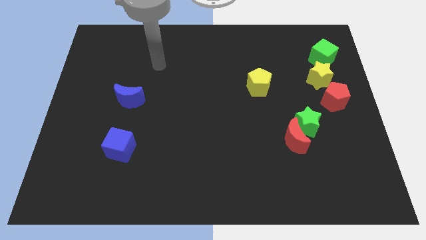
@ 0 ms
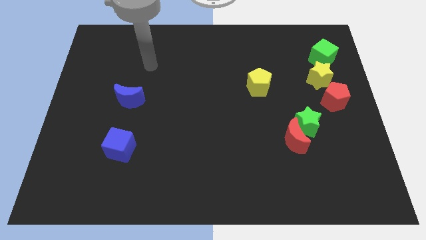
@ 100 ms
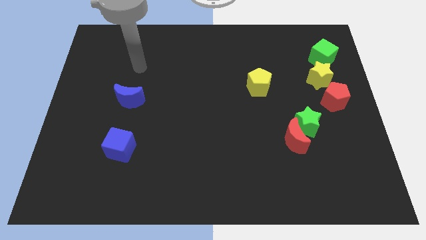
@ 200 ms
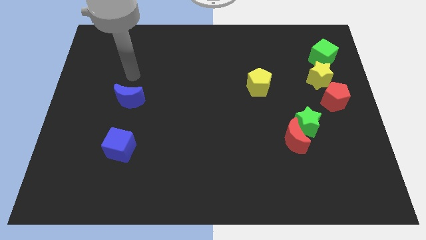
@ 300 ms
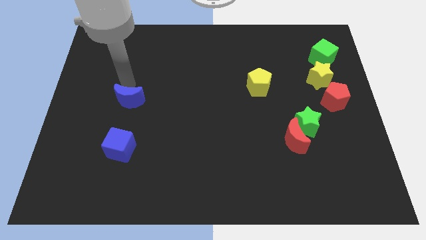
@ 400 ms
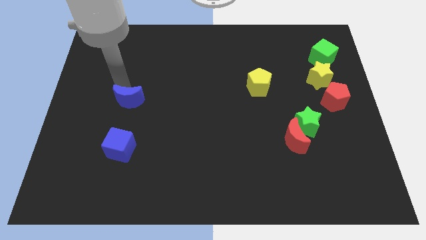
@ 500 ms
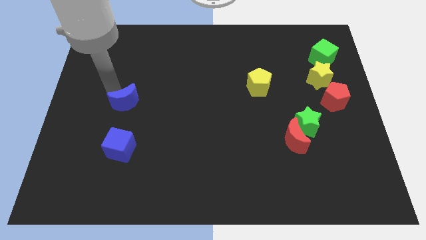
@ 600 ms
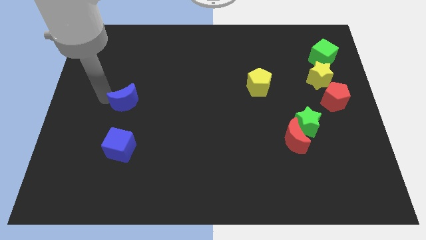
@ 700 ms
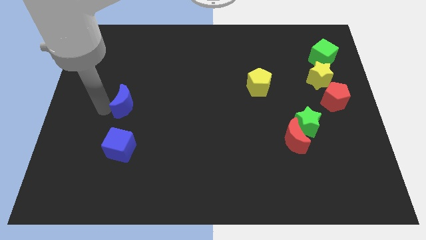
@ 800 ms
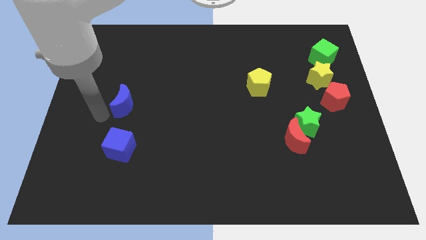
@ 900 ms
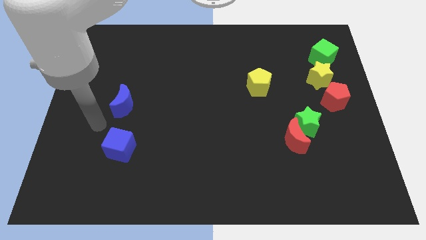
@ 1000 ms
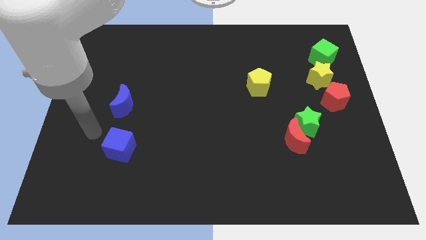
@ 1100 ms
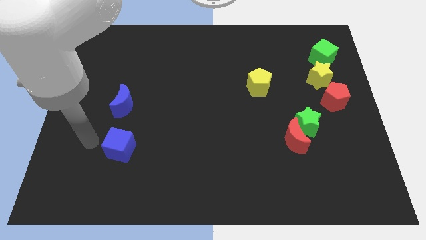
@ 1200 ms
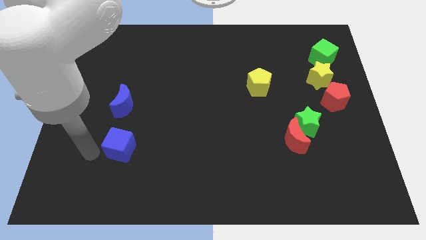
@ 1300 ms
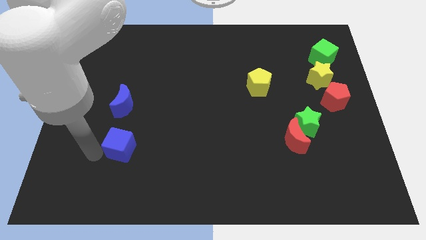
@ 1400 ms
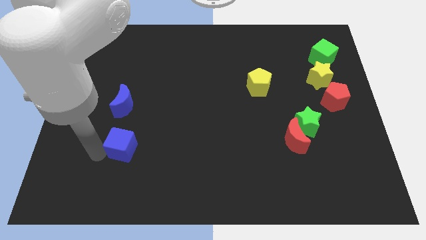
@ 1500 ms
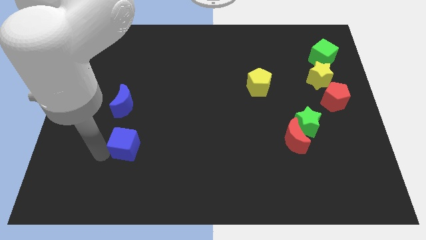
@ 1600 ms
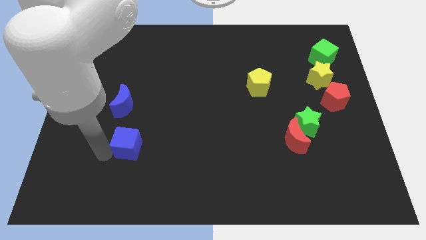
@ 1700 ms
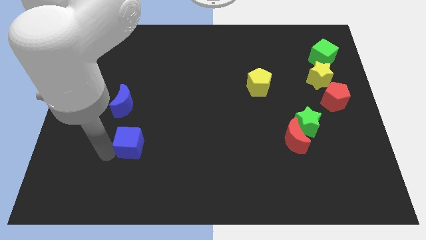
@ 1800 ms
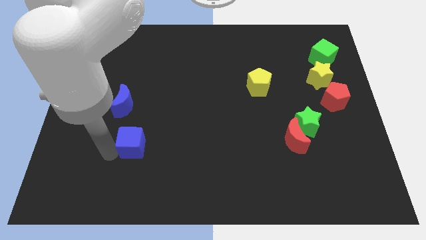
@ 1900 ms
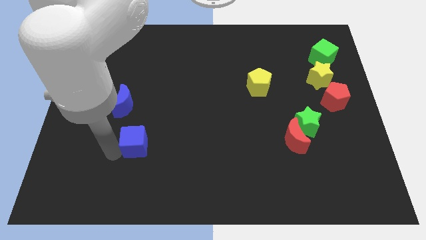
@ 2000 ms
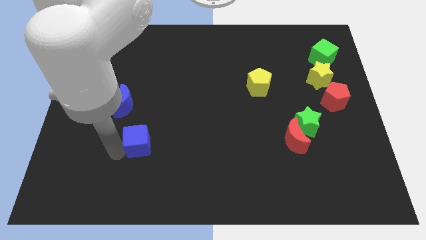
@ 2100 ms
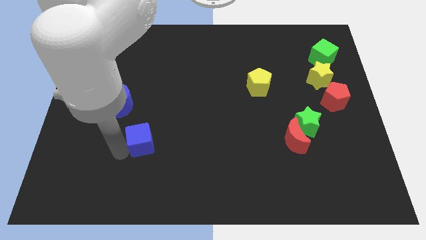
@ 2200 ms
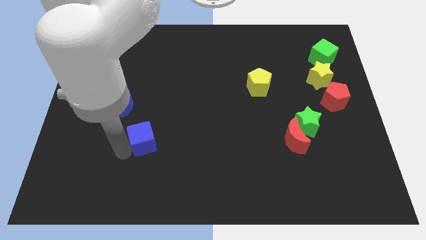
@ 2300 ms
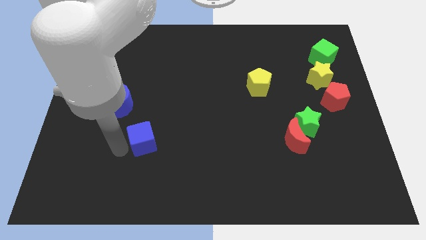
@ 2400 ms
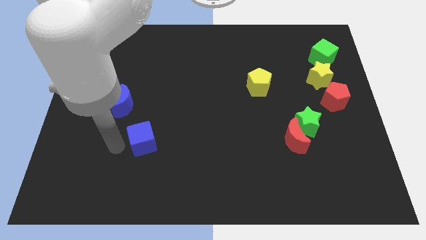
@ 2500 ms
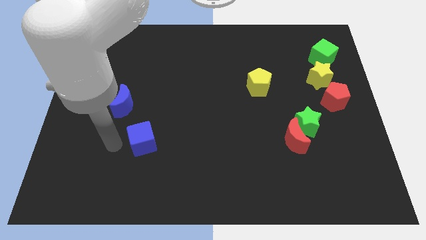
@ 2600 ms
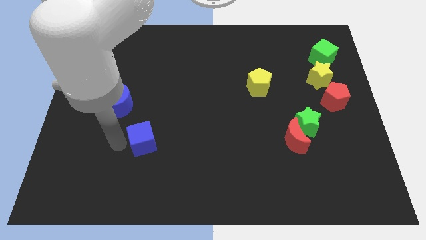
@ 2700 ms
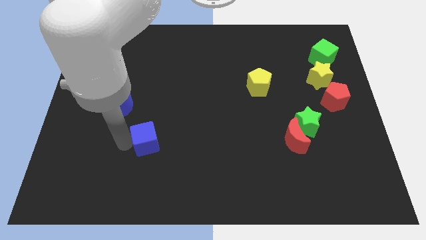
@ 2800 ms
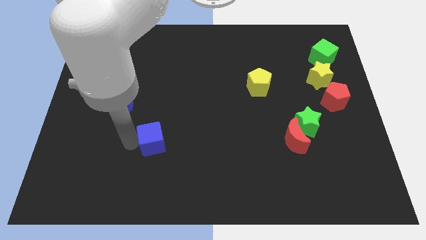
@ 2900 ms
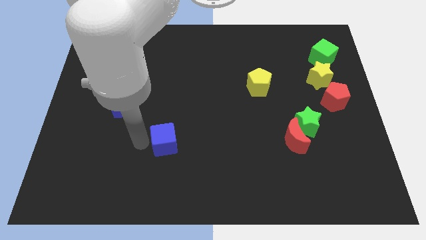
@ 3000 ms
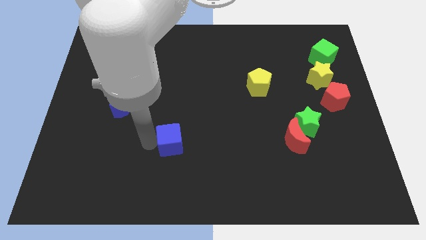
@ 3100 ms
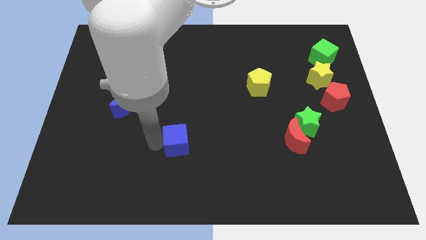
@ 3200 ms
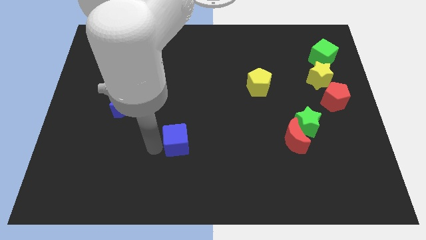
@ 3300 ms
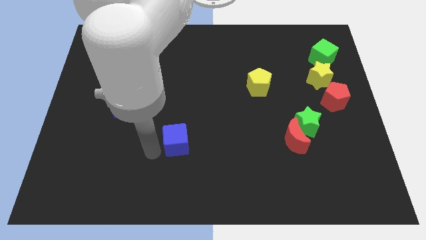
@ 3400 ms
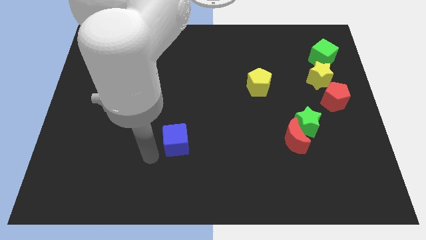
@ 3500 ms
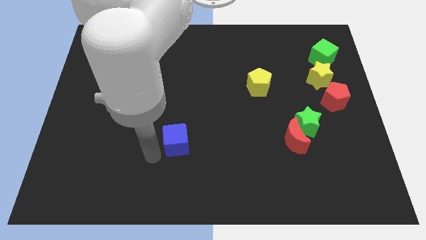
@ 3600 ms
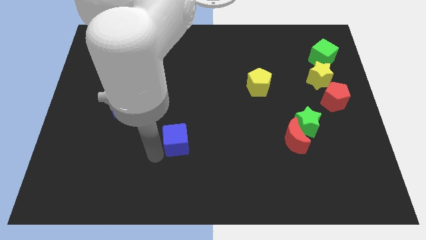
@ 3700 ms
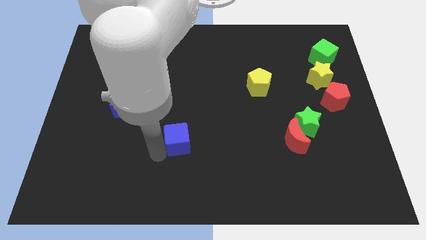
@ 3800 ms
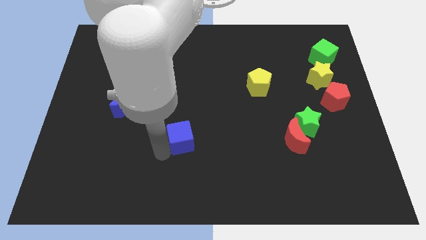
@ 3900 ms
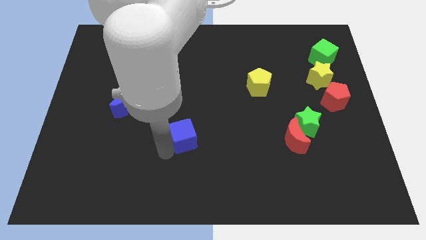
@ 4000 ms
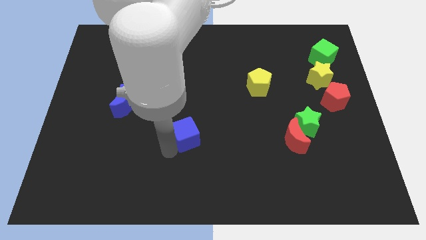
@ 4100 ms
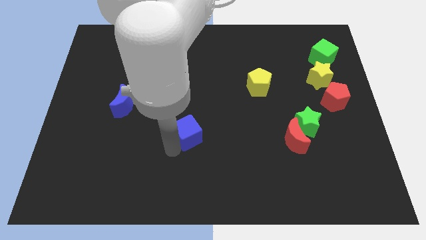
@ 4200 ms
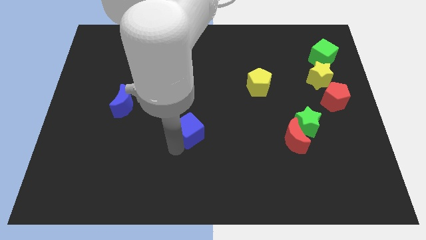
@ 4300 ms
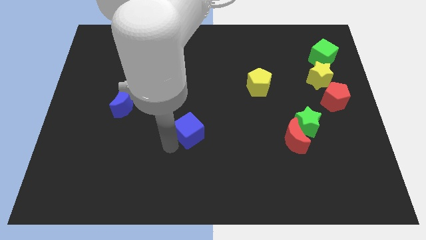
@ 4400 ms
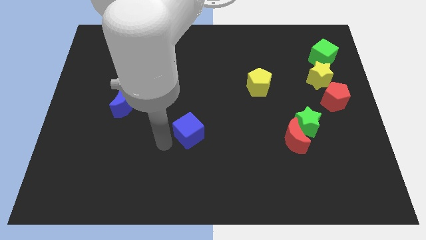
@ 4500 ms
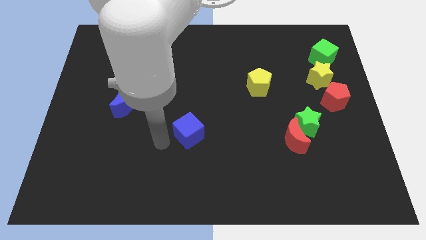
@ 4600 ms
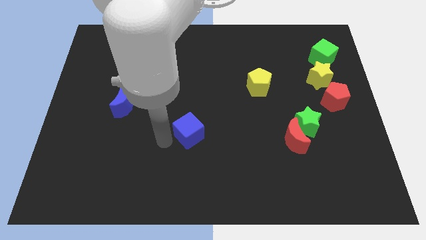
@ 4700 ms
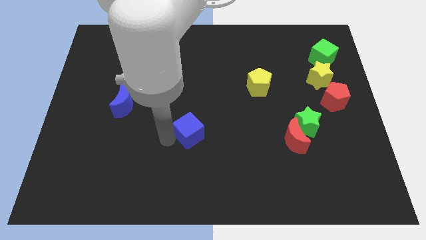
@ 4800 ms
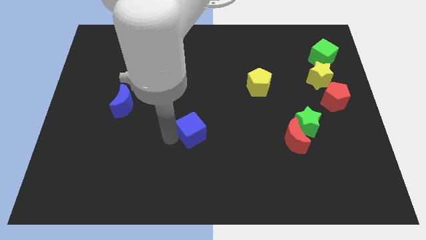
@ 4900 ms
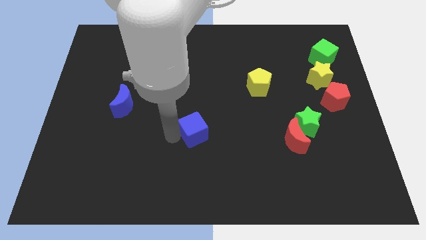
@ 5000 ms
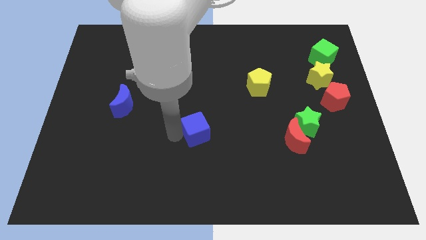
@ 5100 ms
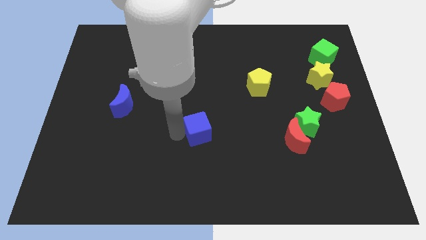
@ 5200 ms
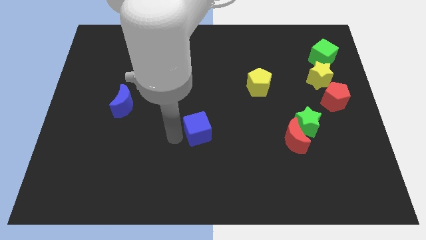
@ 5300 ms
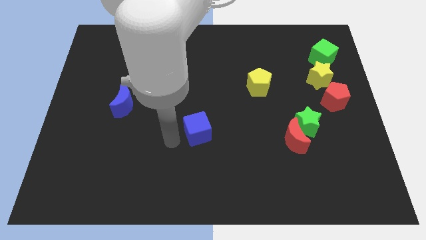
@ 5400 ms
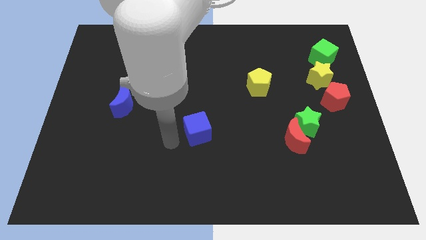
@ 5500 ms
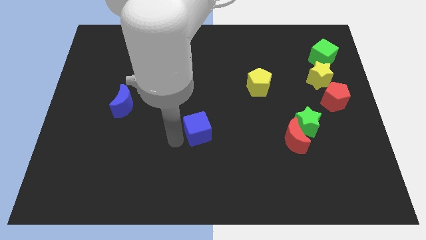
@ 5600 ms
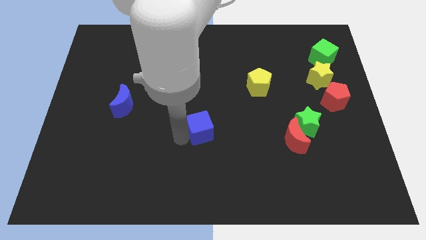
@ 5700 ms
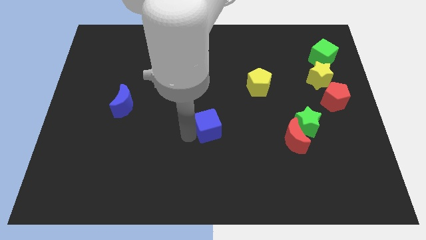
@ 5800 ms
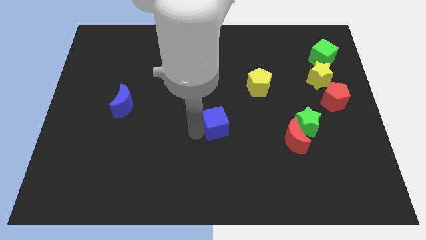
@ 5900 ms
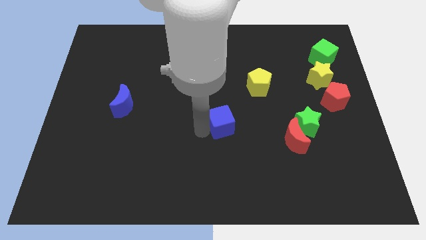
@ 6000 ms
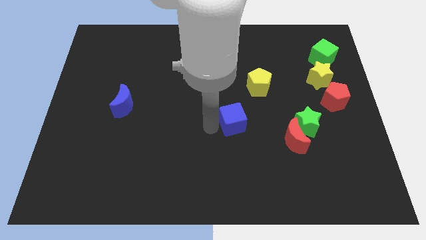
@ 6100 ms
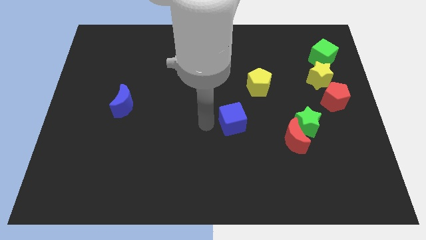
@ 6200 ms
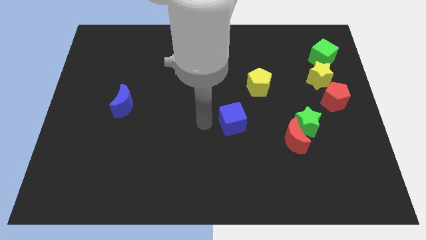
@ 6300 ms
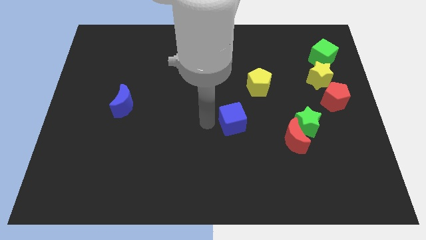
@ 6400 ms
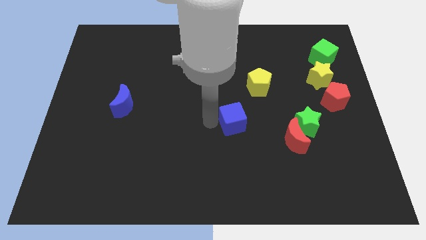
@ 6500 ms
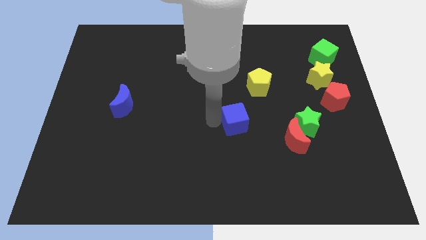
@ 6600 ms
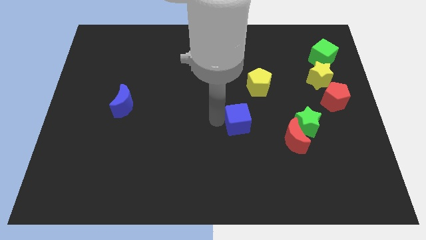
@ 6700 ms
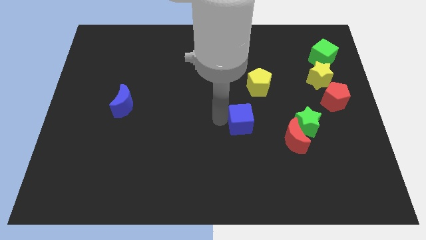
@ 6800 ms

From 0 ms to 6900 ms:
push the blue cube below the yellow pentagon

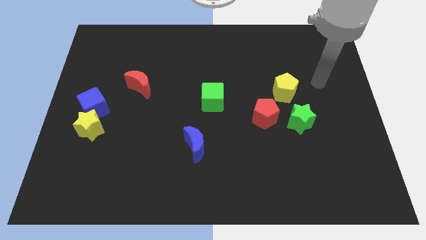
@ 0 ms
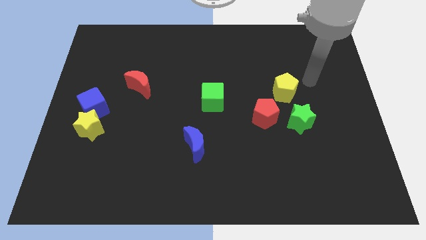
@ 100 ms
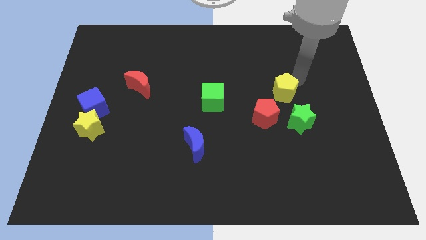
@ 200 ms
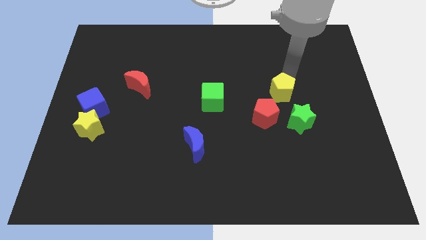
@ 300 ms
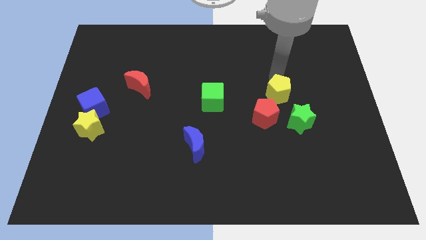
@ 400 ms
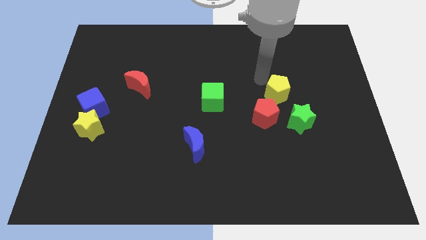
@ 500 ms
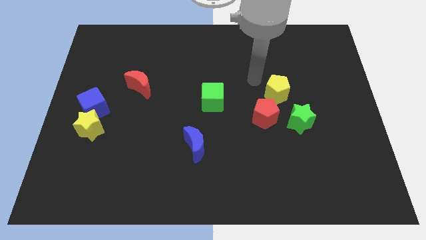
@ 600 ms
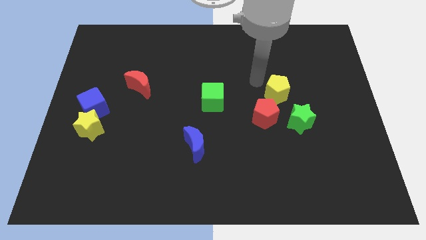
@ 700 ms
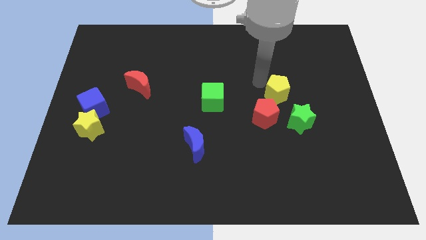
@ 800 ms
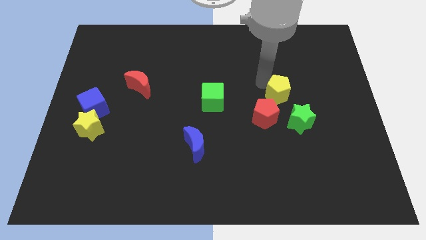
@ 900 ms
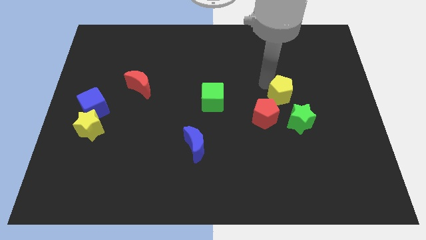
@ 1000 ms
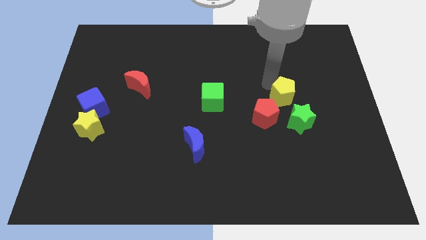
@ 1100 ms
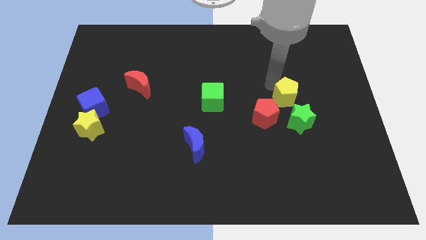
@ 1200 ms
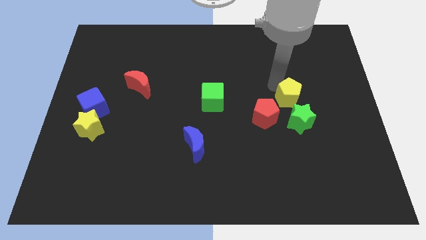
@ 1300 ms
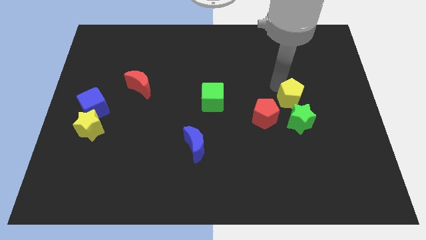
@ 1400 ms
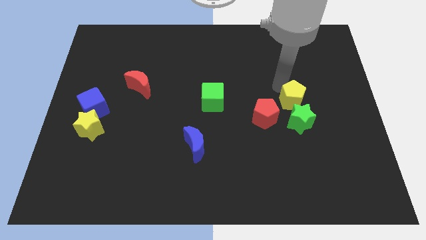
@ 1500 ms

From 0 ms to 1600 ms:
move the yellow pentagon right of the red pentagon
